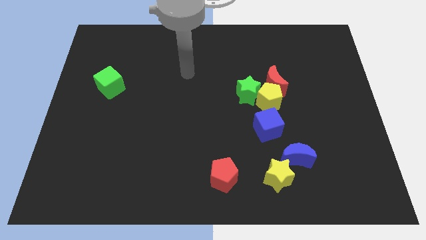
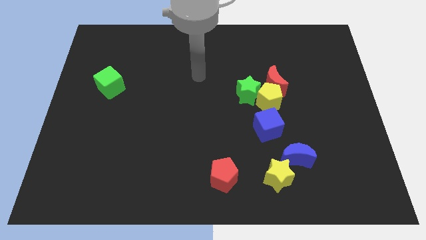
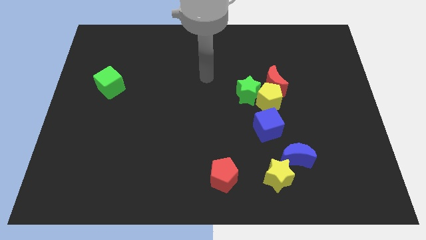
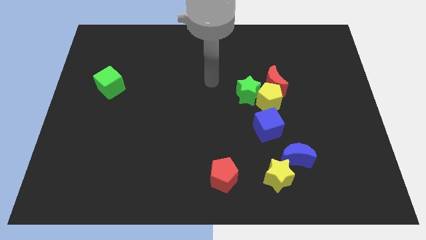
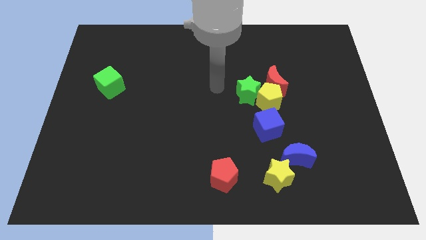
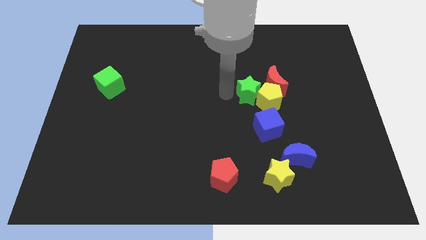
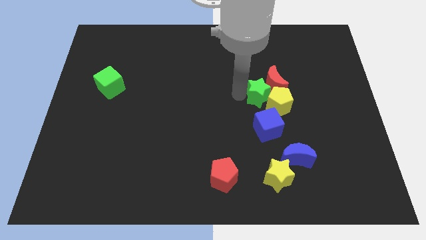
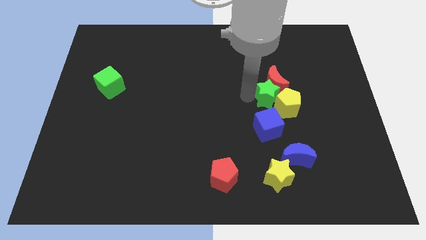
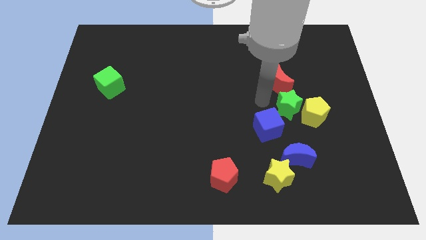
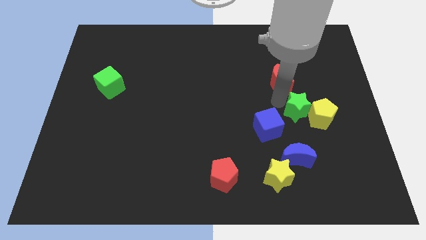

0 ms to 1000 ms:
pull the red moon apart from the yellow pentagon and green star

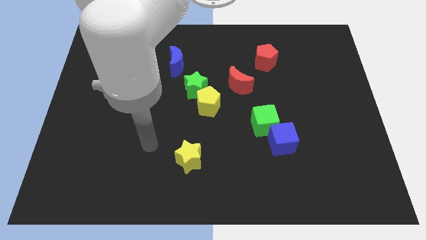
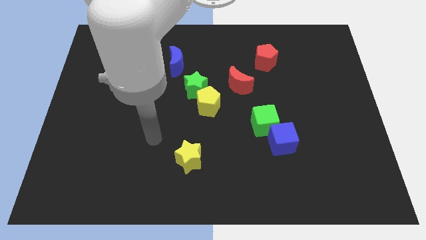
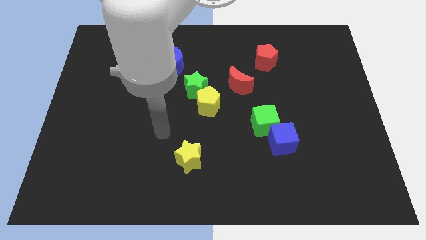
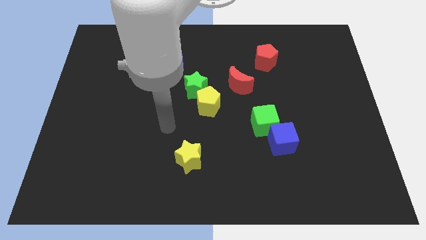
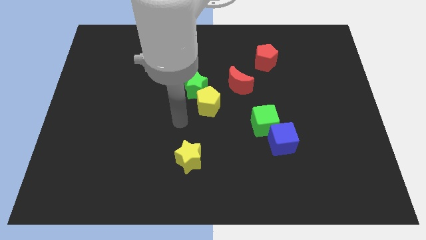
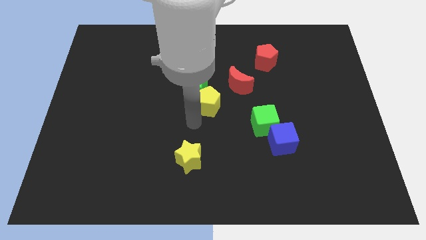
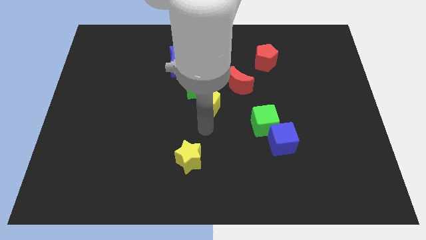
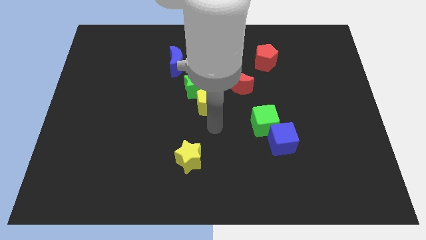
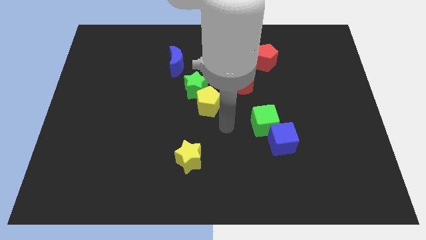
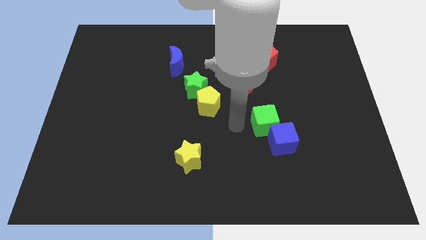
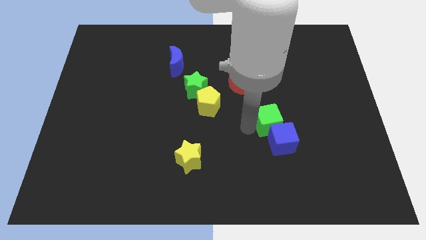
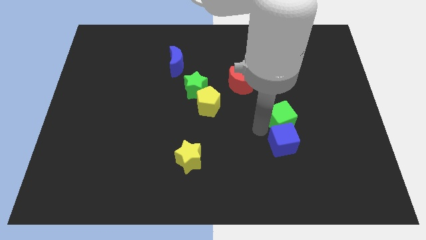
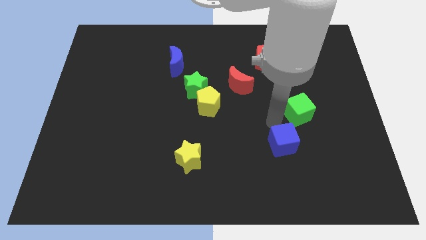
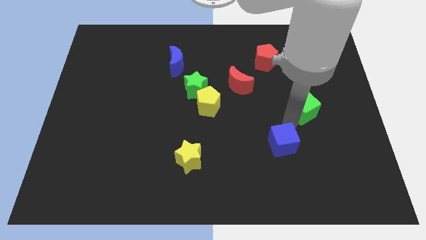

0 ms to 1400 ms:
move the blue cube away from the green cube

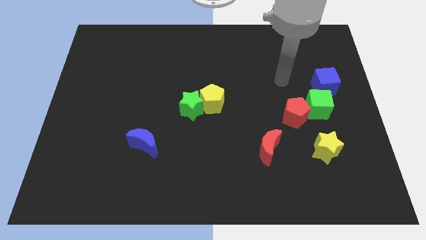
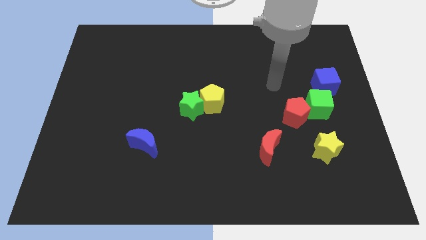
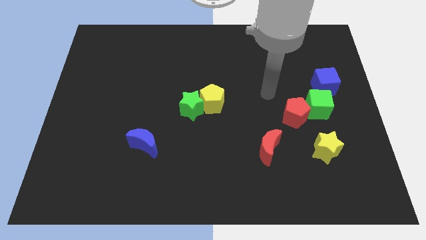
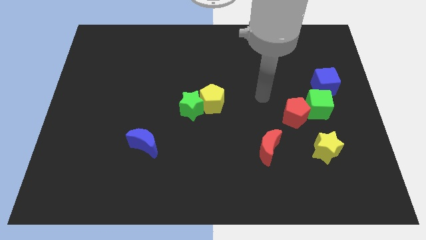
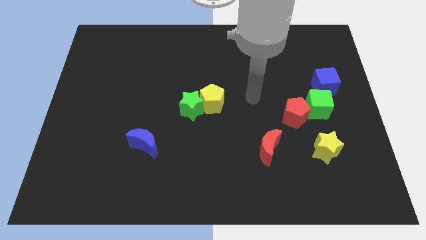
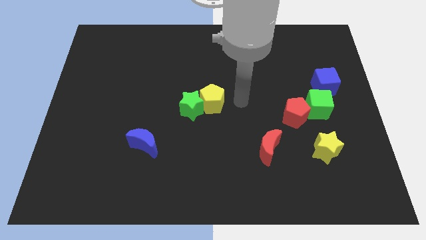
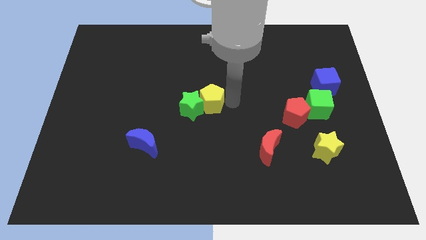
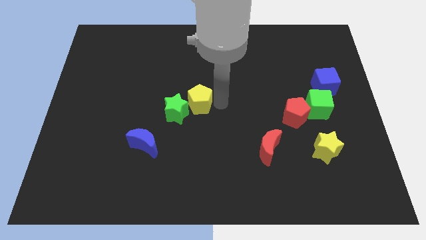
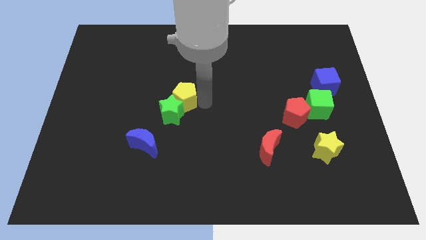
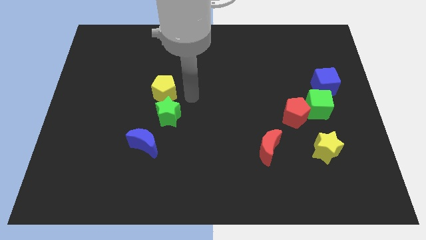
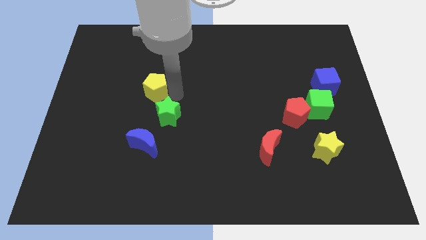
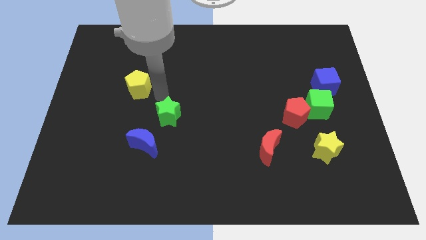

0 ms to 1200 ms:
move the green star away from the yellow pentagon

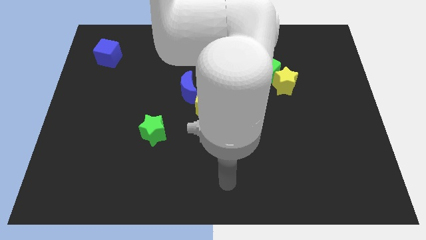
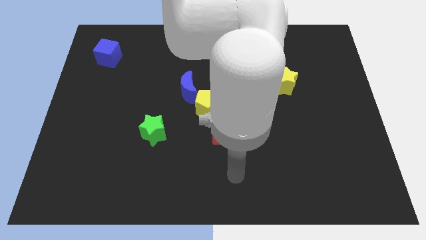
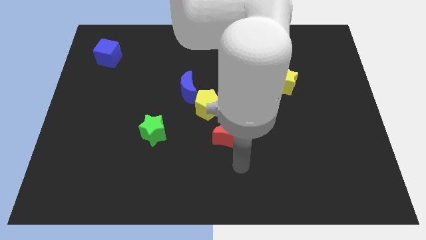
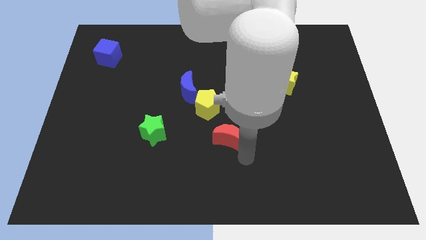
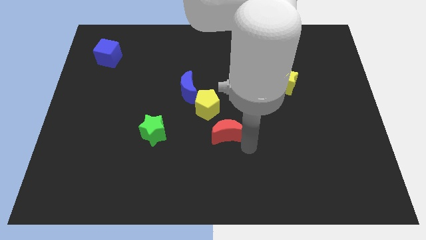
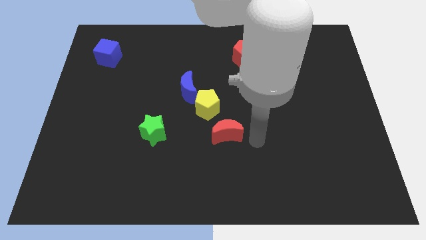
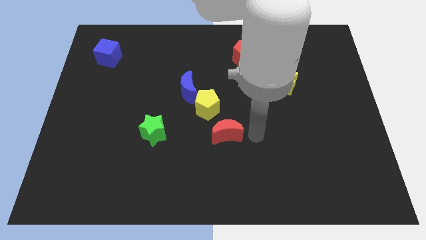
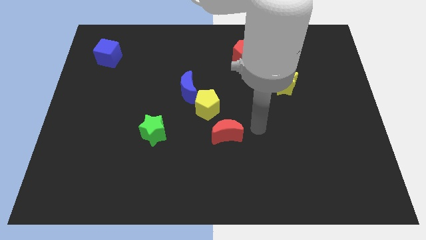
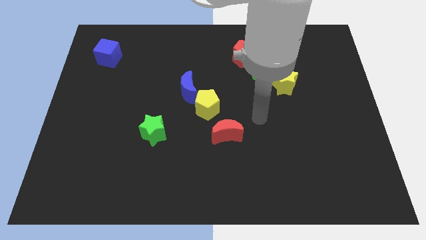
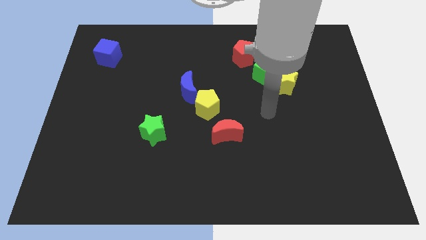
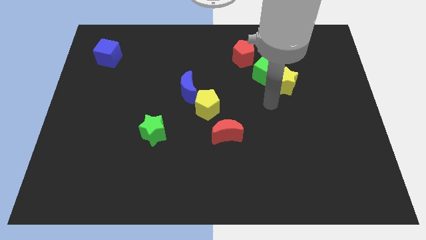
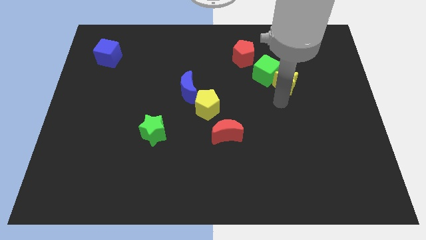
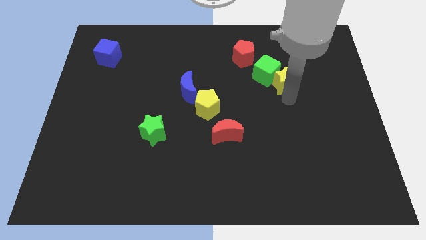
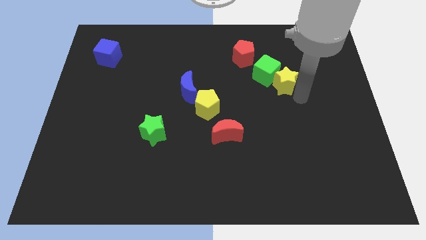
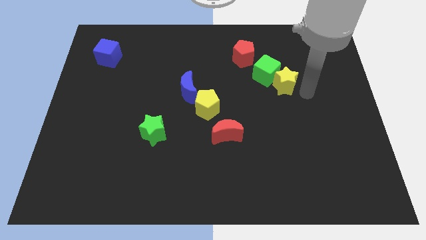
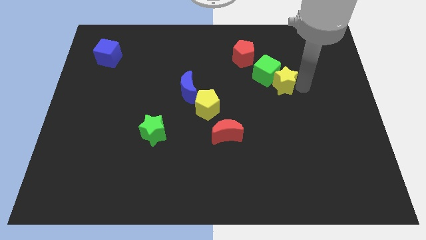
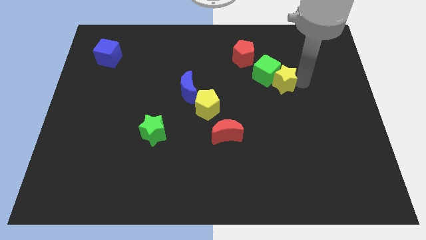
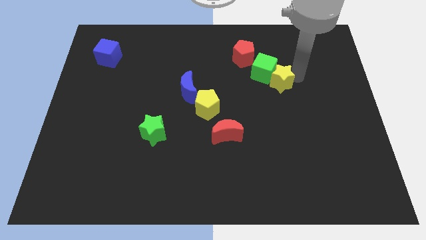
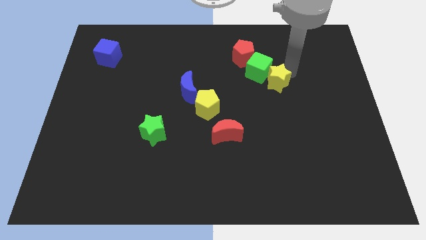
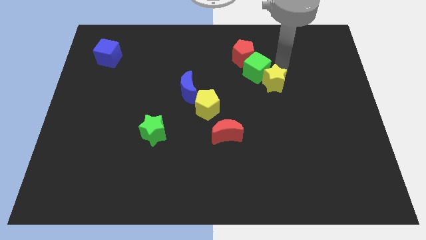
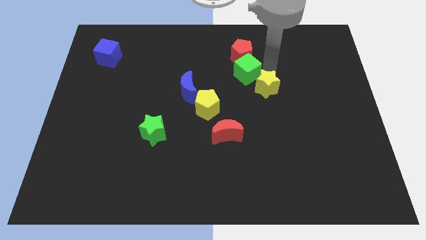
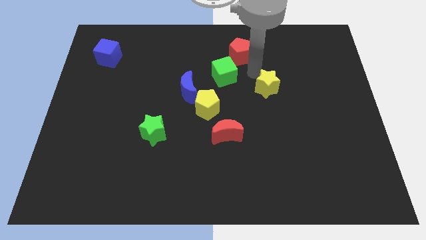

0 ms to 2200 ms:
pull the yellow star apart from the green cube

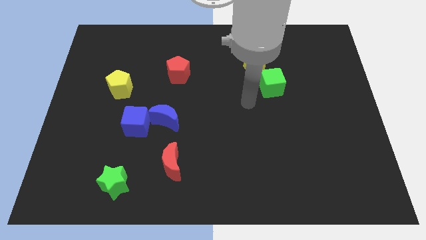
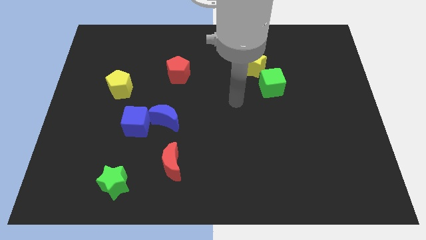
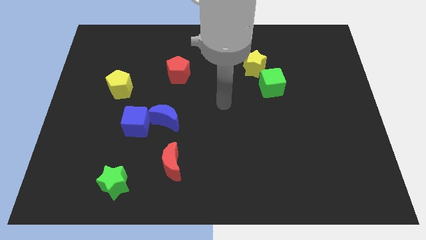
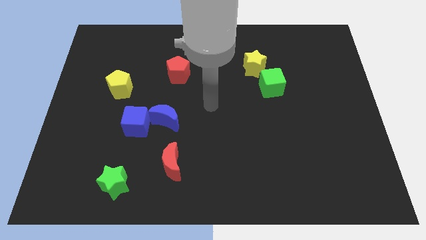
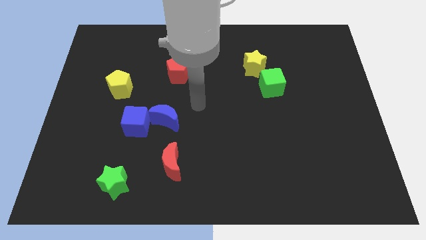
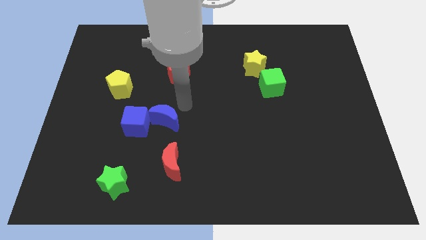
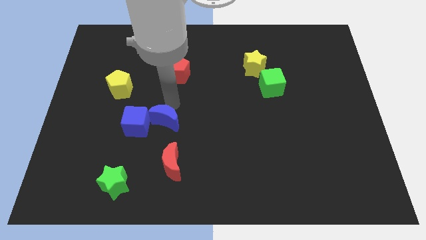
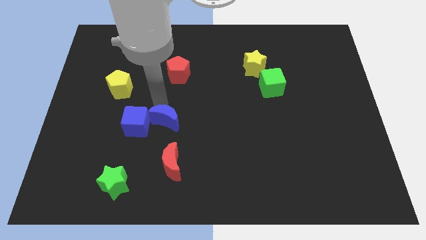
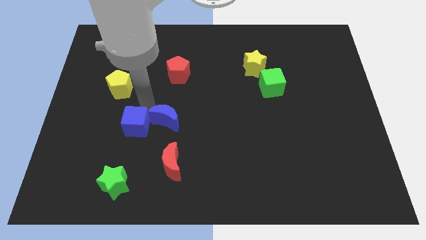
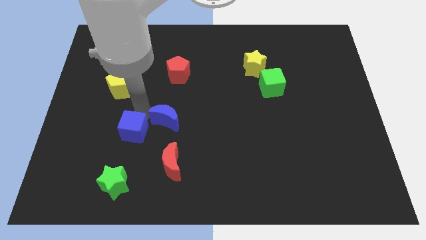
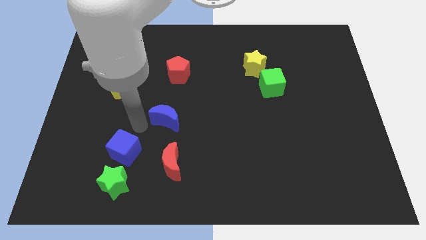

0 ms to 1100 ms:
pull the blue moon apart from the blue cube

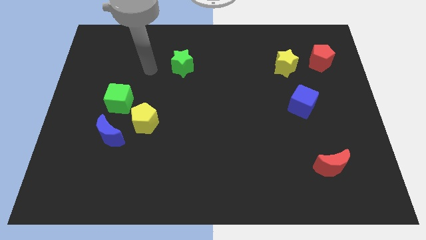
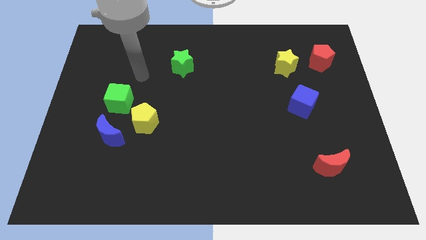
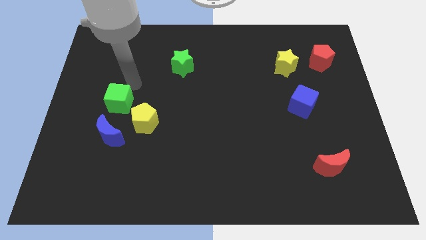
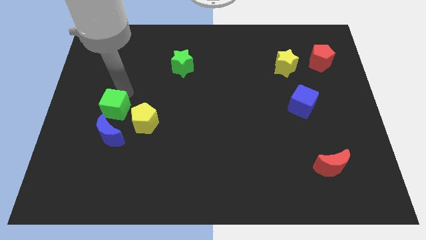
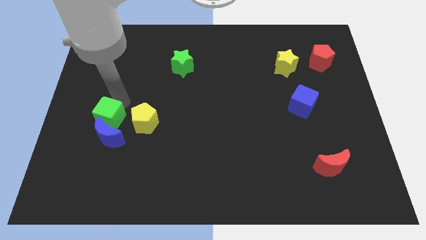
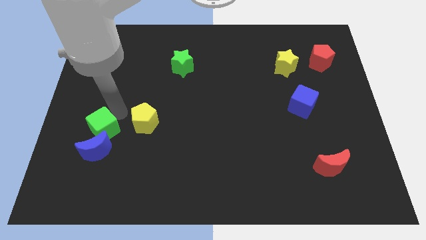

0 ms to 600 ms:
pull the yellow pentagon apart from the blue moon and green cube

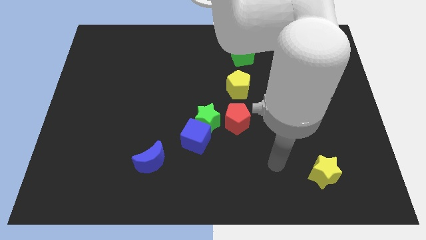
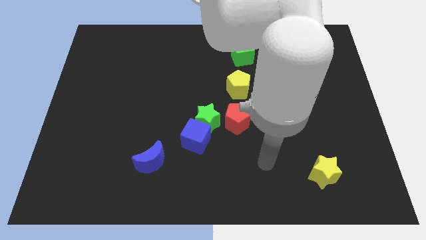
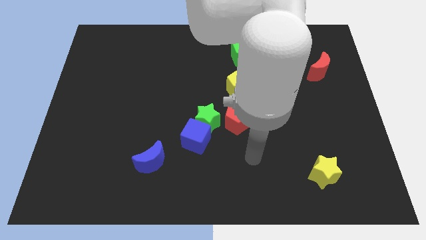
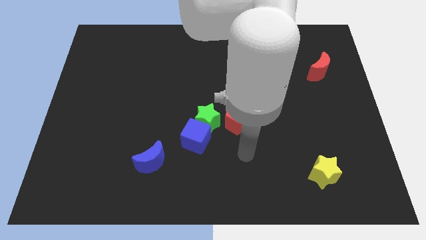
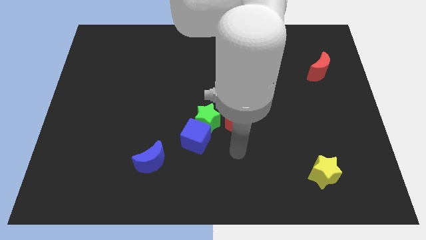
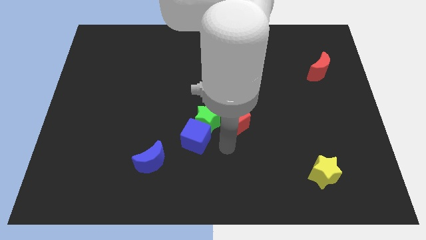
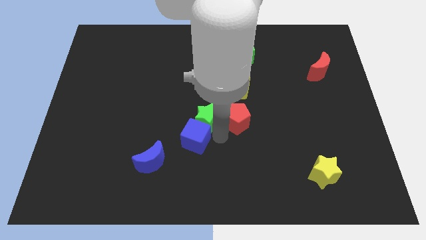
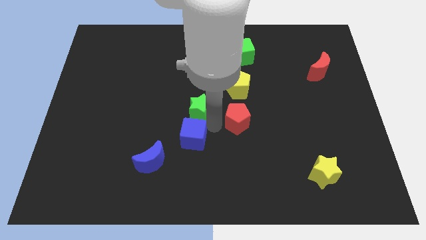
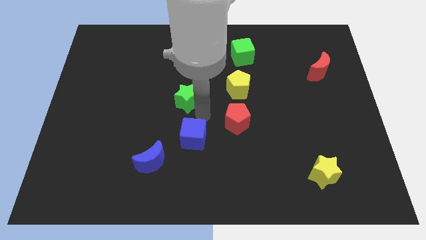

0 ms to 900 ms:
separate the blue cube from the green star

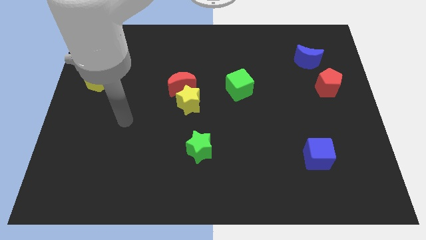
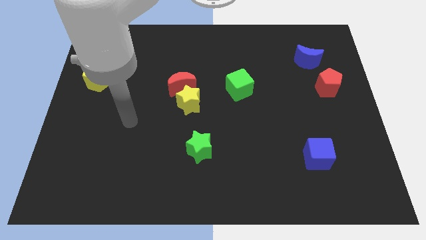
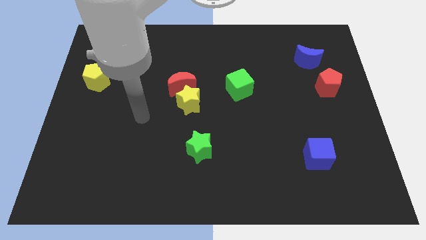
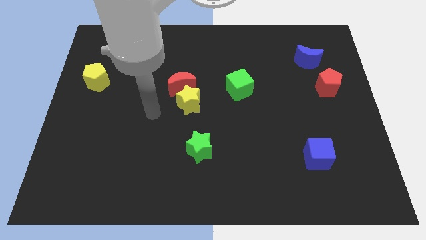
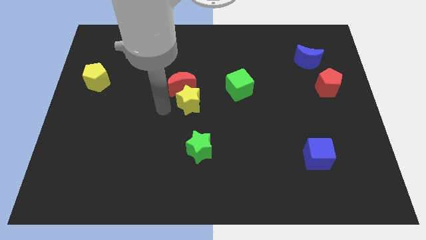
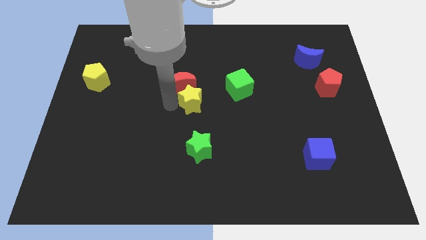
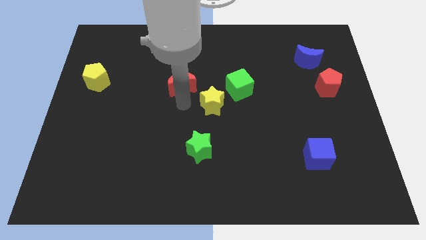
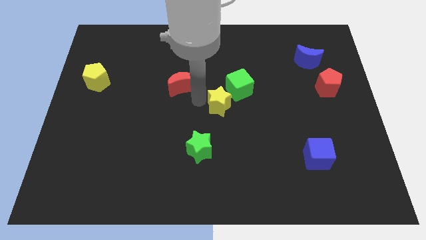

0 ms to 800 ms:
separate the red moon from the yellow star

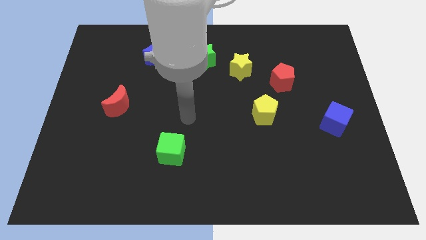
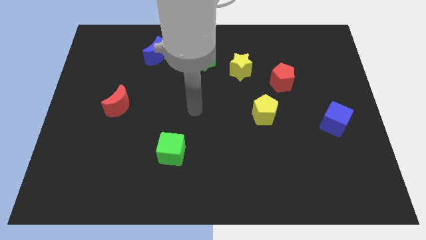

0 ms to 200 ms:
separate the green star from the yellow star
